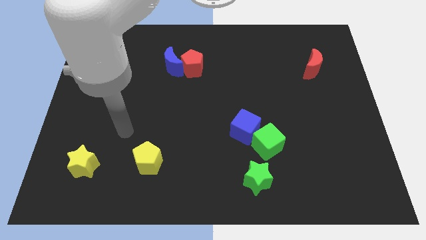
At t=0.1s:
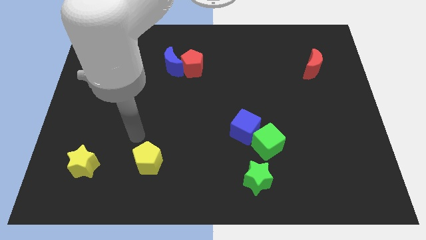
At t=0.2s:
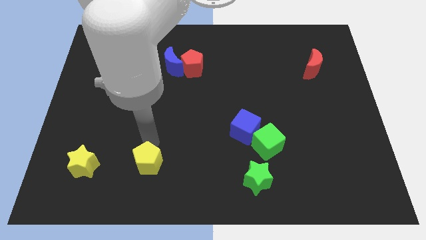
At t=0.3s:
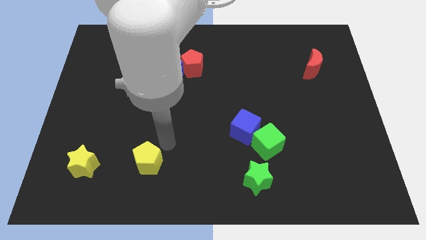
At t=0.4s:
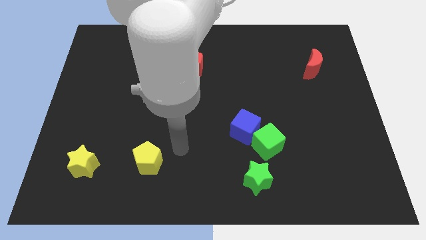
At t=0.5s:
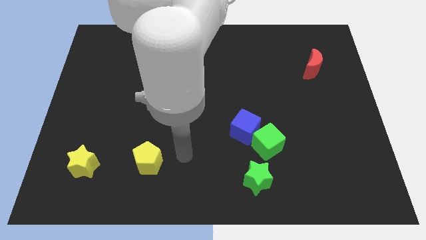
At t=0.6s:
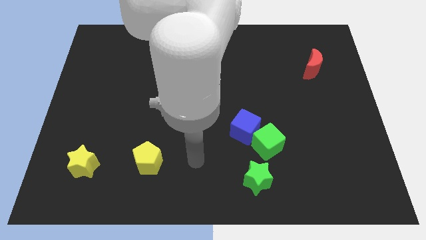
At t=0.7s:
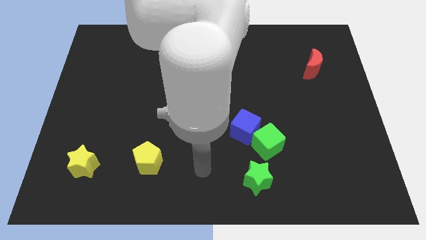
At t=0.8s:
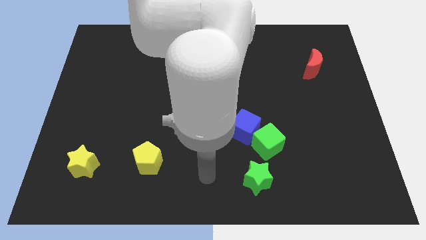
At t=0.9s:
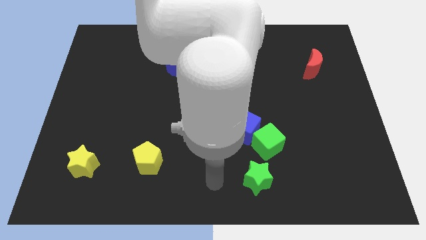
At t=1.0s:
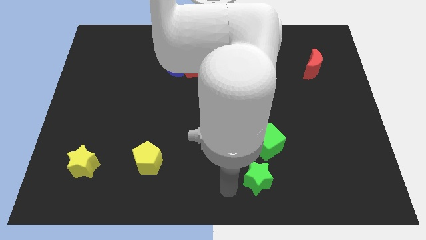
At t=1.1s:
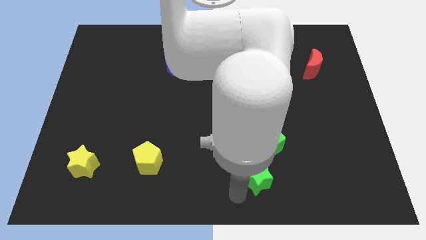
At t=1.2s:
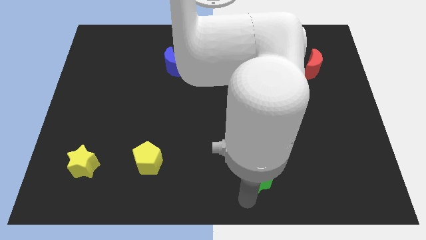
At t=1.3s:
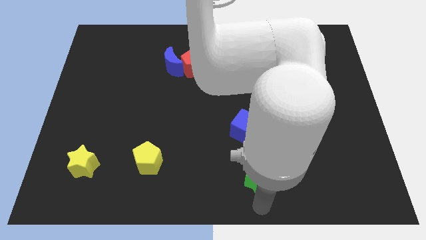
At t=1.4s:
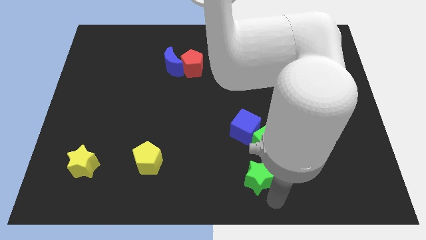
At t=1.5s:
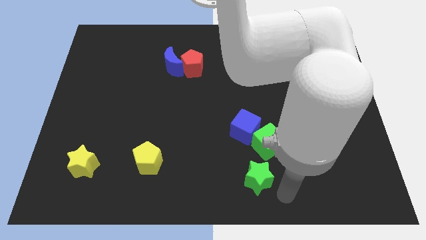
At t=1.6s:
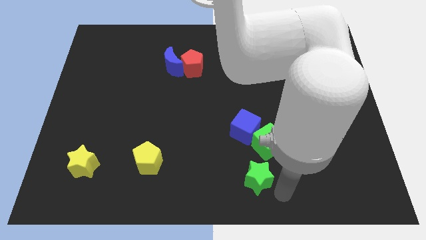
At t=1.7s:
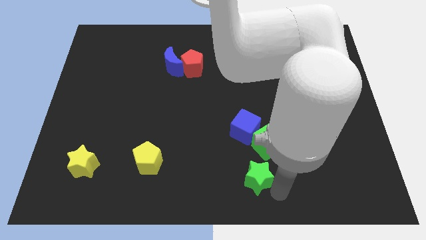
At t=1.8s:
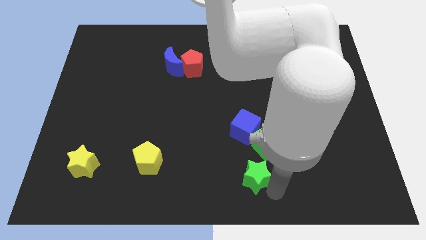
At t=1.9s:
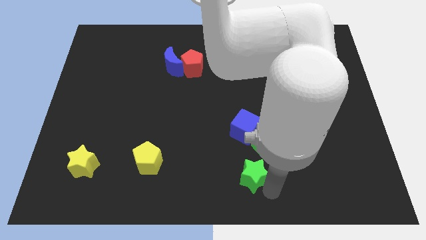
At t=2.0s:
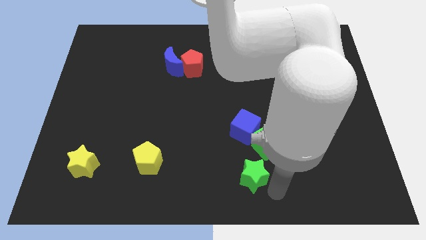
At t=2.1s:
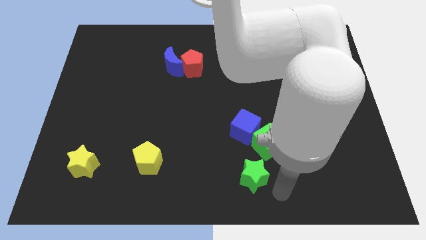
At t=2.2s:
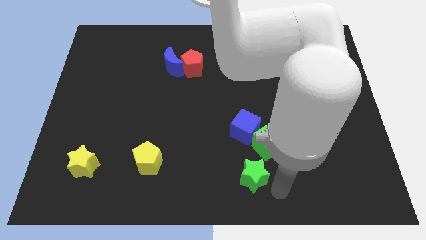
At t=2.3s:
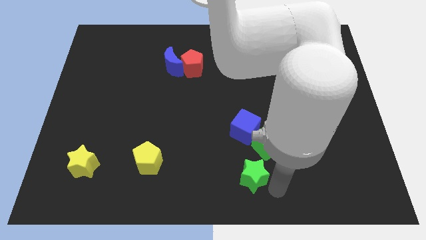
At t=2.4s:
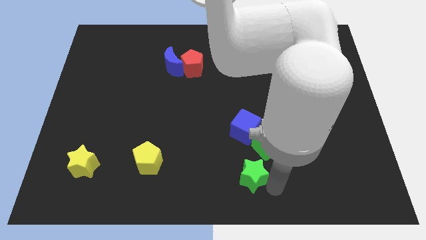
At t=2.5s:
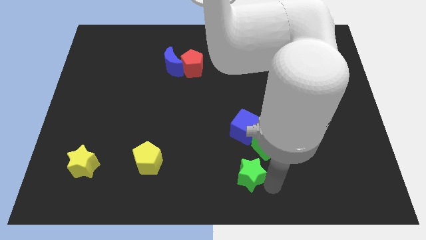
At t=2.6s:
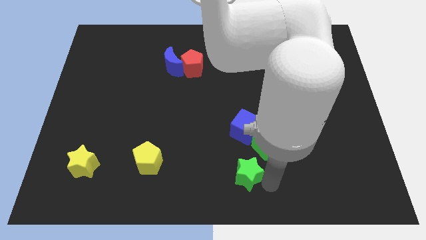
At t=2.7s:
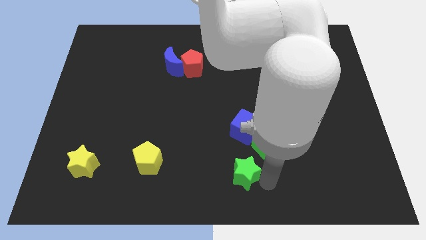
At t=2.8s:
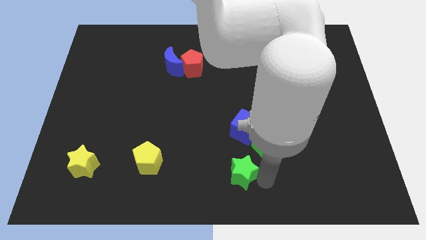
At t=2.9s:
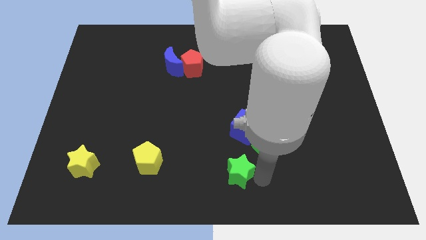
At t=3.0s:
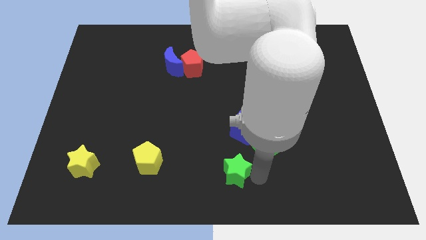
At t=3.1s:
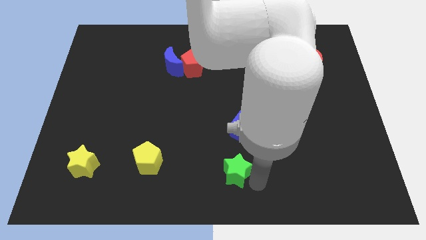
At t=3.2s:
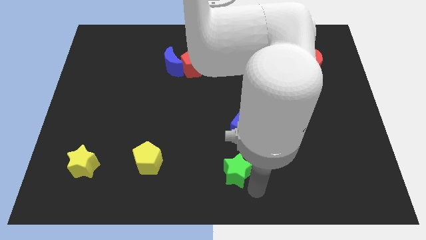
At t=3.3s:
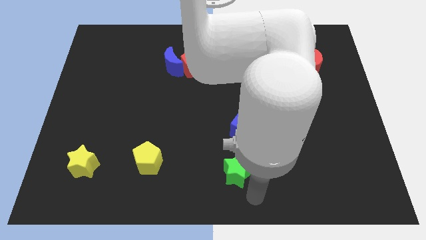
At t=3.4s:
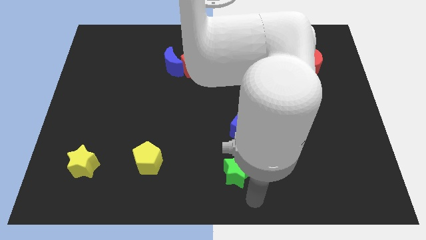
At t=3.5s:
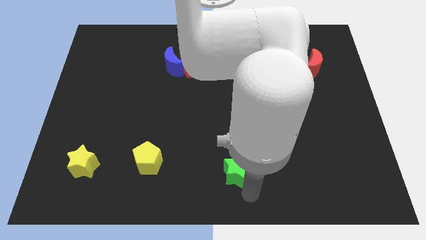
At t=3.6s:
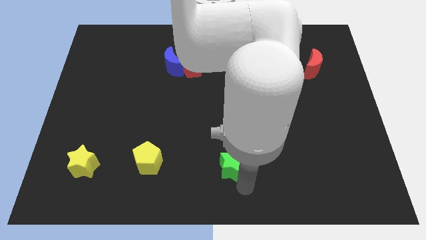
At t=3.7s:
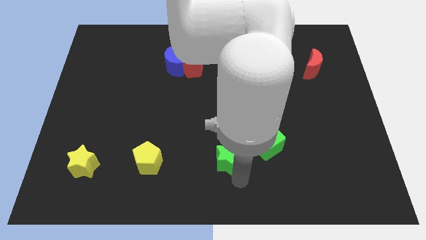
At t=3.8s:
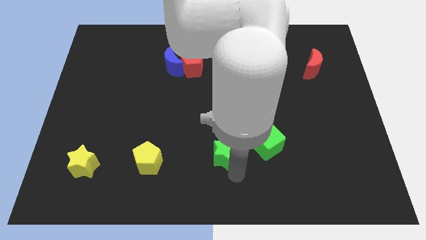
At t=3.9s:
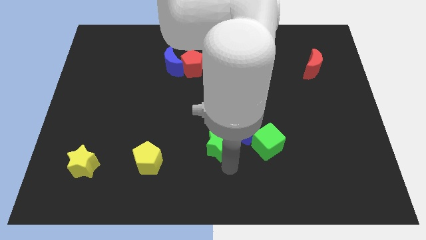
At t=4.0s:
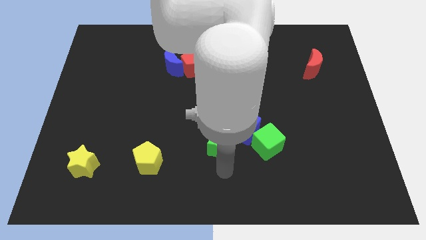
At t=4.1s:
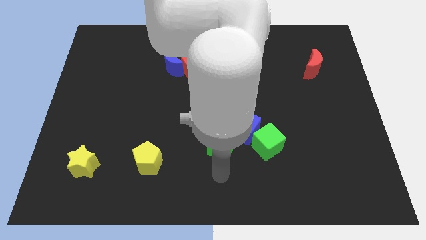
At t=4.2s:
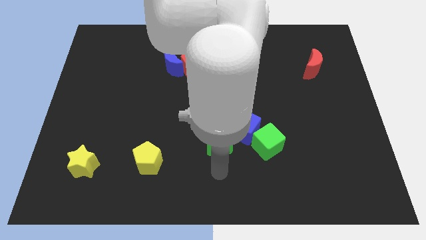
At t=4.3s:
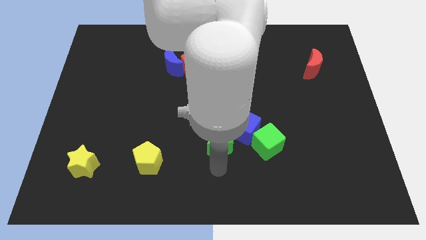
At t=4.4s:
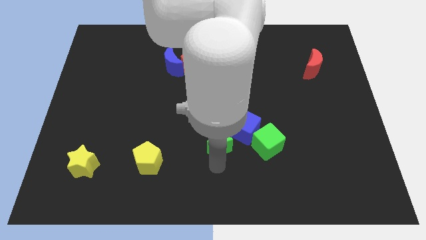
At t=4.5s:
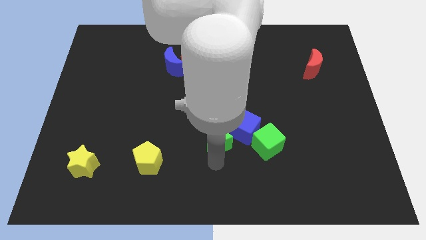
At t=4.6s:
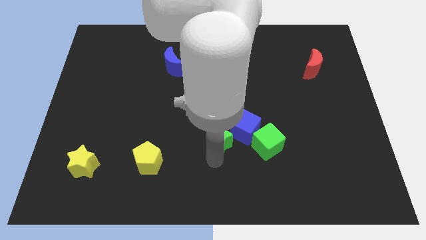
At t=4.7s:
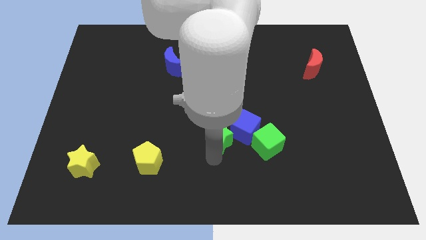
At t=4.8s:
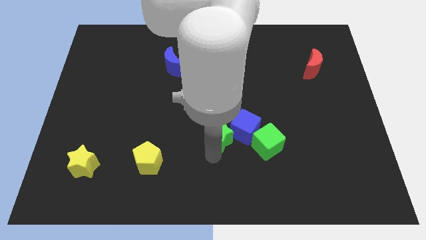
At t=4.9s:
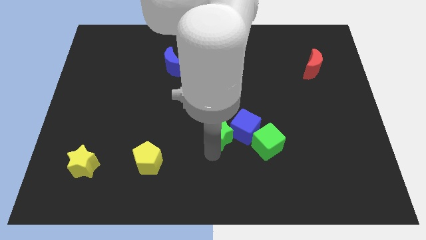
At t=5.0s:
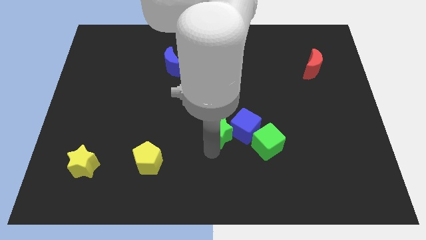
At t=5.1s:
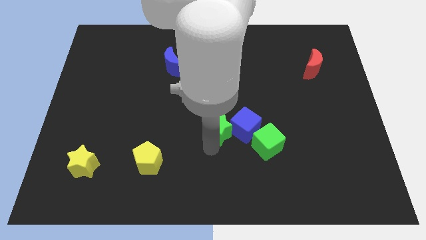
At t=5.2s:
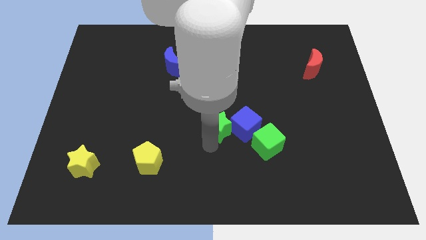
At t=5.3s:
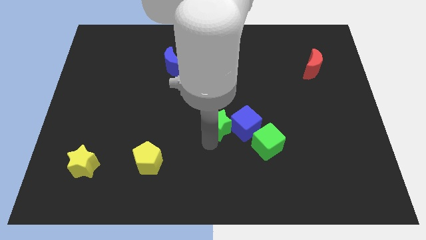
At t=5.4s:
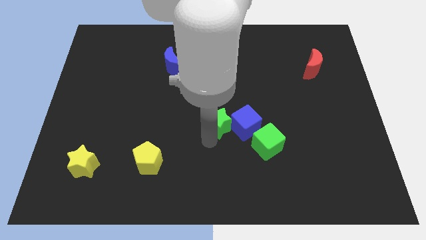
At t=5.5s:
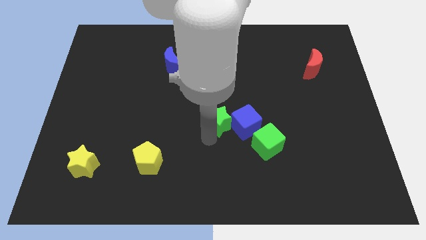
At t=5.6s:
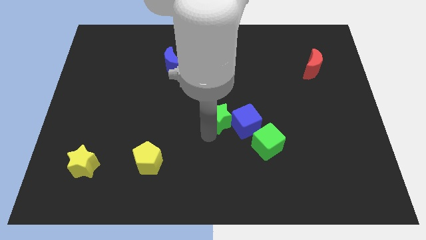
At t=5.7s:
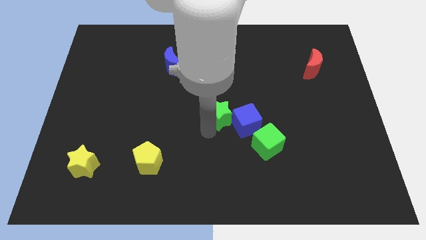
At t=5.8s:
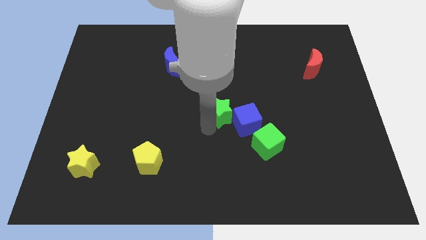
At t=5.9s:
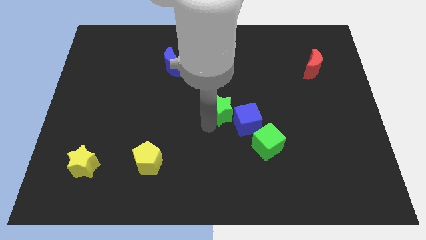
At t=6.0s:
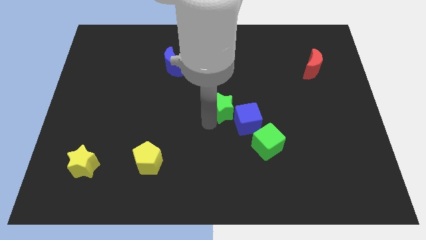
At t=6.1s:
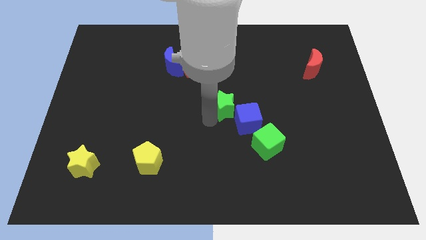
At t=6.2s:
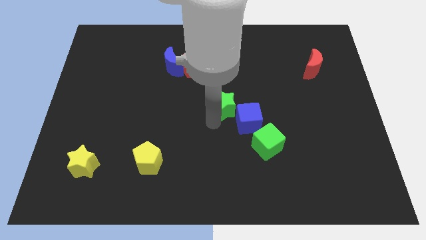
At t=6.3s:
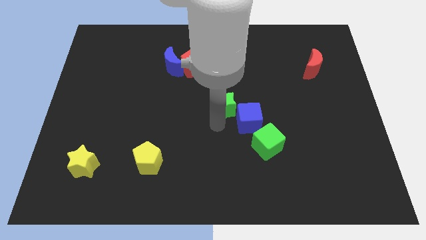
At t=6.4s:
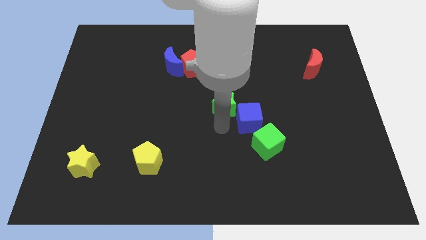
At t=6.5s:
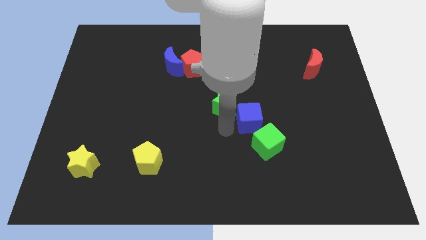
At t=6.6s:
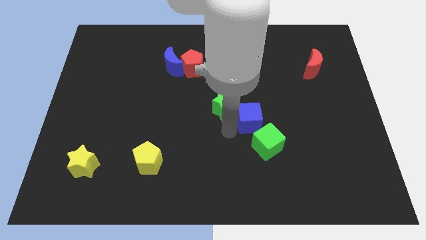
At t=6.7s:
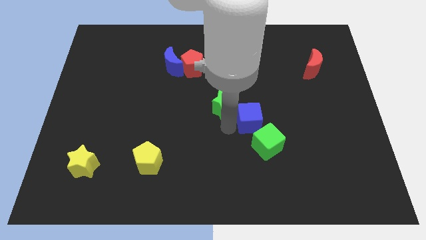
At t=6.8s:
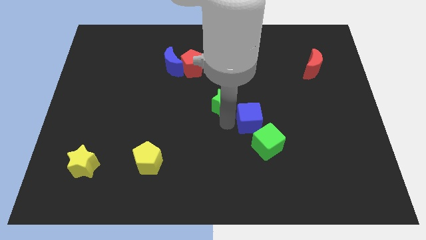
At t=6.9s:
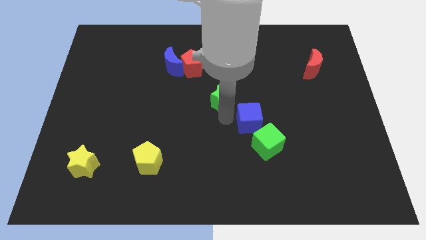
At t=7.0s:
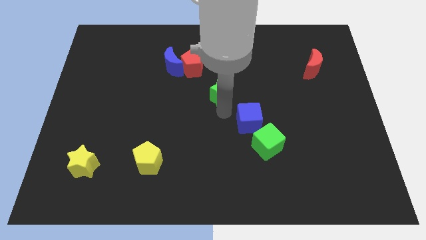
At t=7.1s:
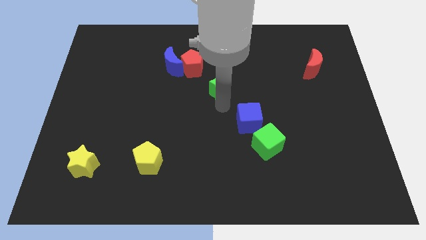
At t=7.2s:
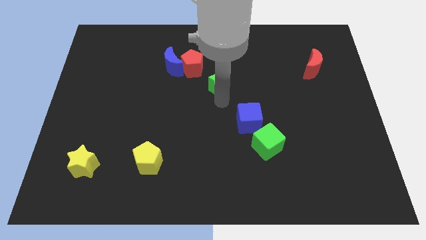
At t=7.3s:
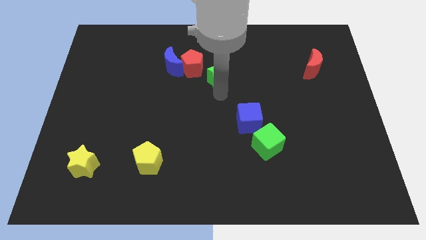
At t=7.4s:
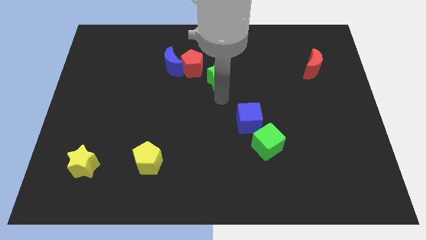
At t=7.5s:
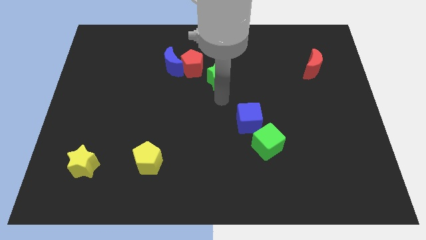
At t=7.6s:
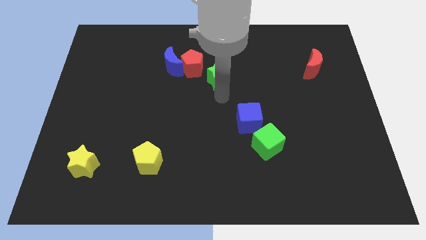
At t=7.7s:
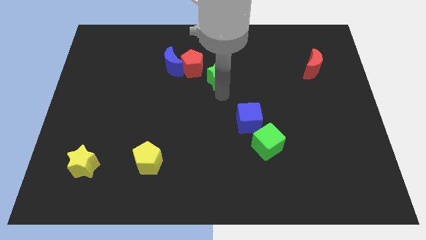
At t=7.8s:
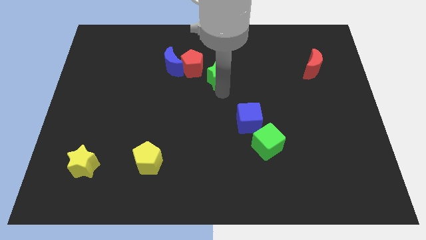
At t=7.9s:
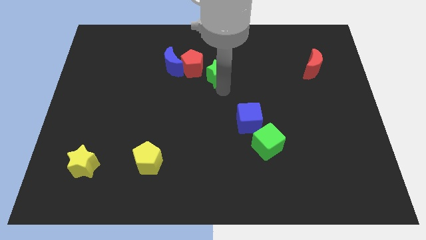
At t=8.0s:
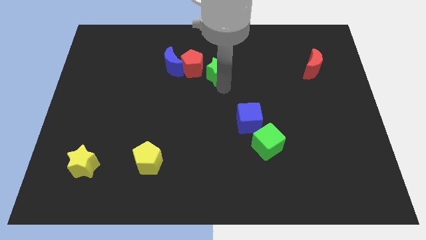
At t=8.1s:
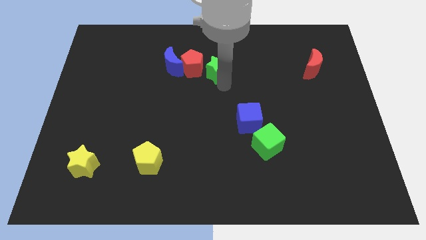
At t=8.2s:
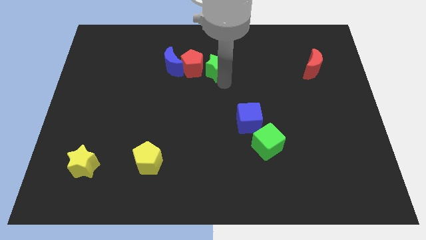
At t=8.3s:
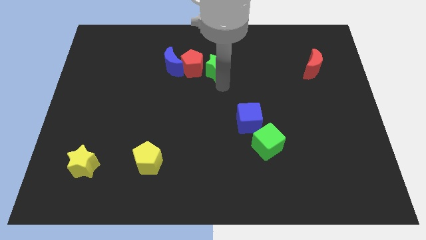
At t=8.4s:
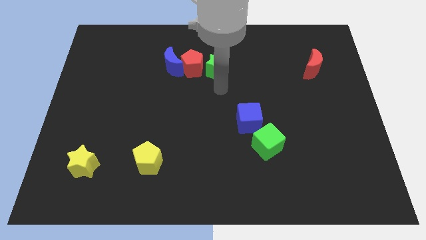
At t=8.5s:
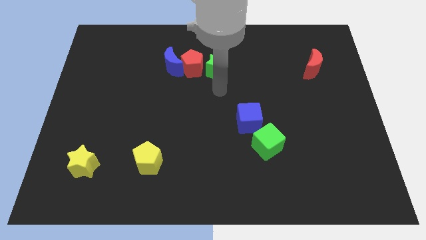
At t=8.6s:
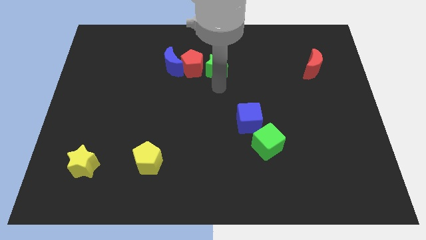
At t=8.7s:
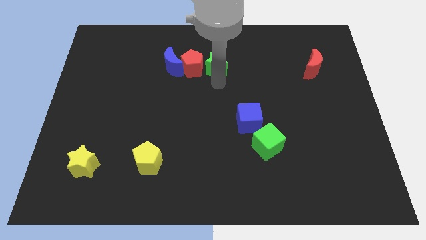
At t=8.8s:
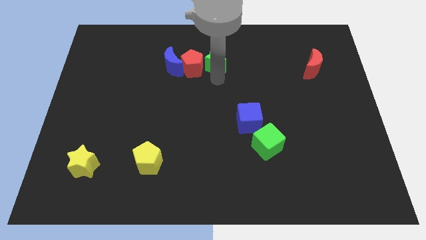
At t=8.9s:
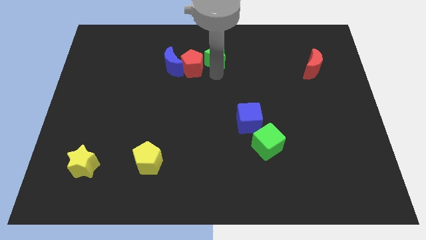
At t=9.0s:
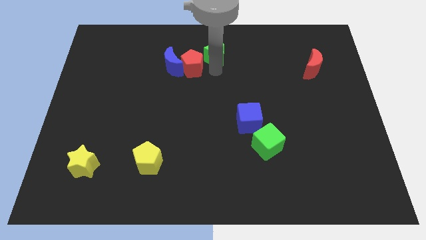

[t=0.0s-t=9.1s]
move the green star to the towards your base
